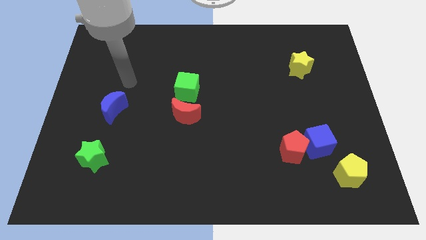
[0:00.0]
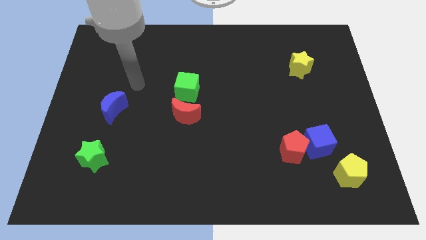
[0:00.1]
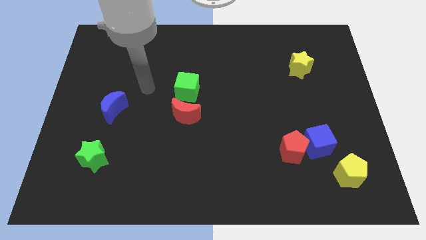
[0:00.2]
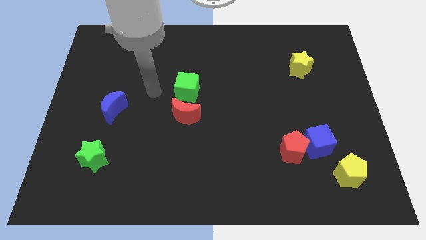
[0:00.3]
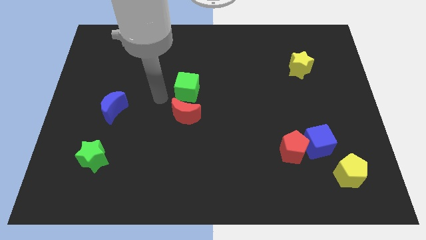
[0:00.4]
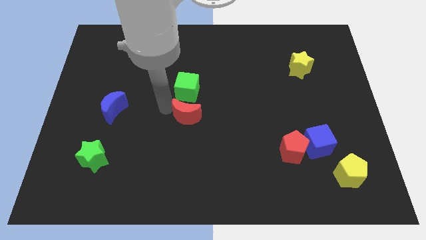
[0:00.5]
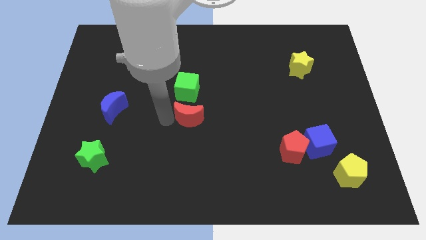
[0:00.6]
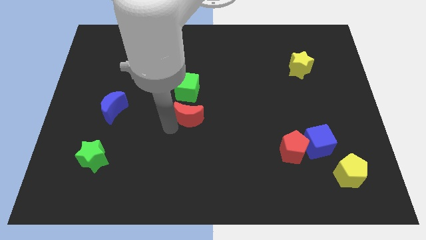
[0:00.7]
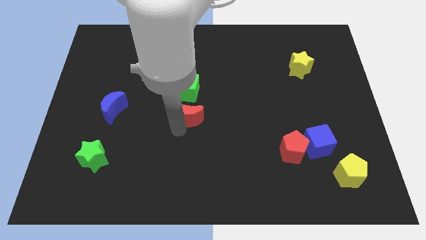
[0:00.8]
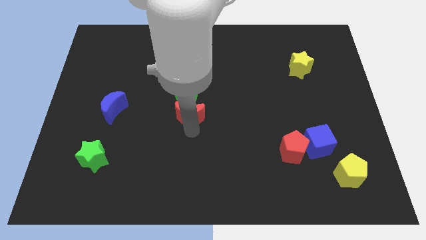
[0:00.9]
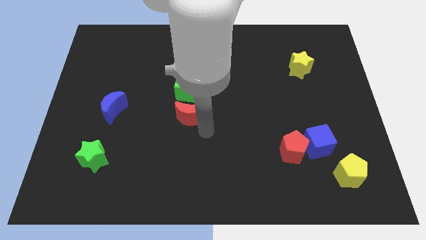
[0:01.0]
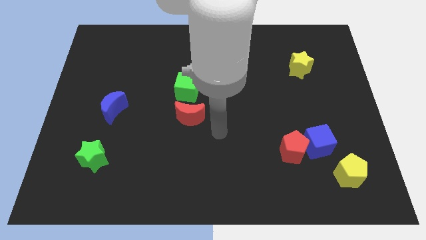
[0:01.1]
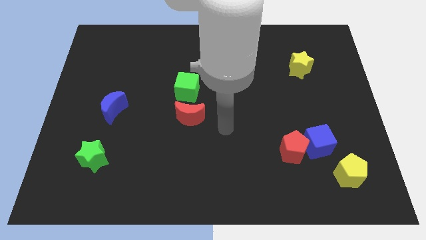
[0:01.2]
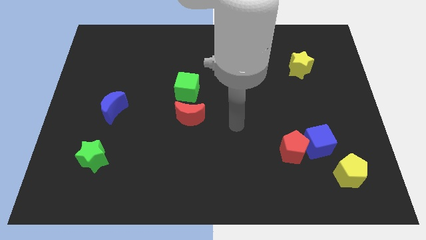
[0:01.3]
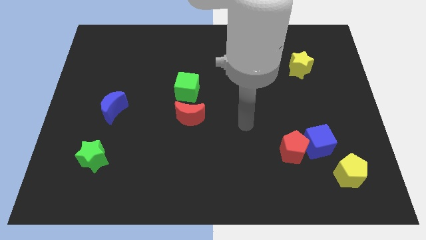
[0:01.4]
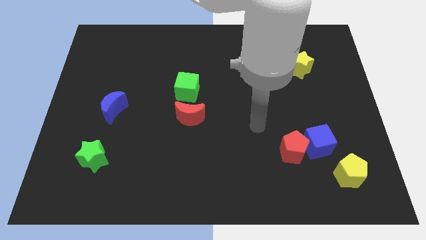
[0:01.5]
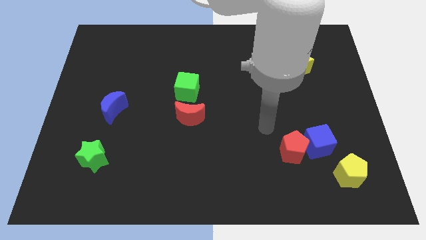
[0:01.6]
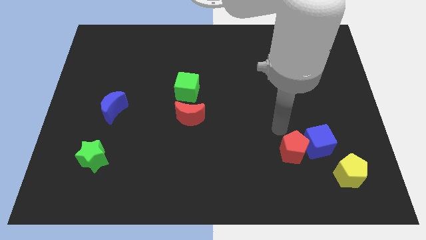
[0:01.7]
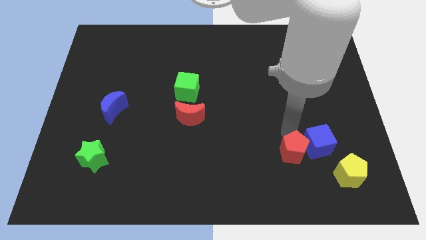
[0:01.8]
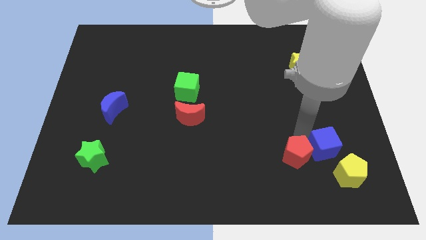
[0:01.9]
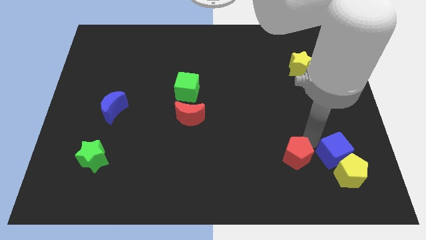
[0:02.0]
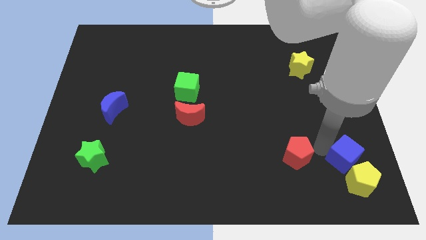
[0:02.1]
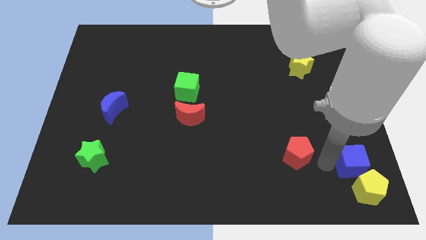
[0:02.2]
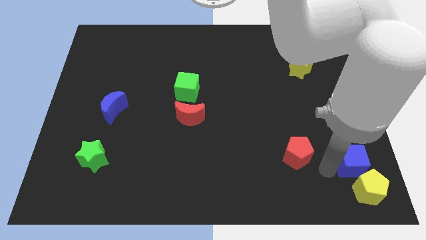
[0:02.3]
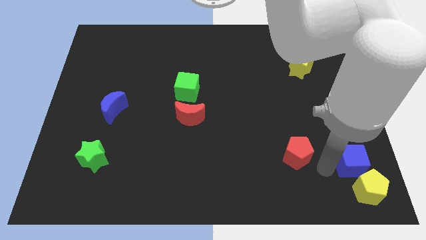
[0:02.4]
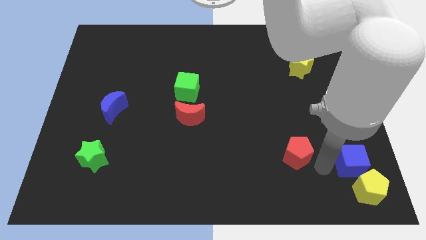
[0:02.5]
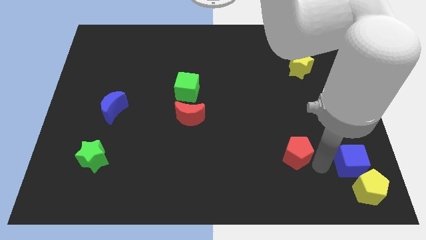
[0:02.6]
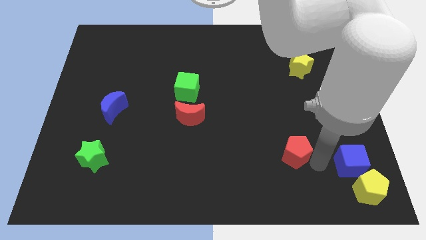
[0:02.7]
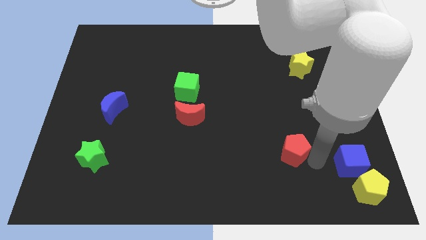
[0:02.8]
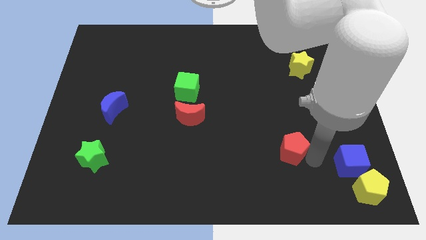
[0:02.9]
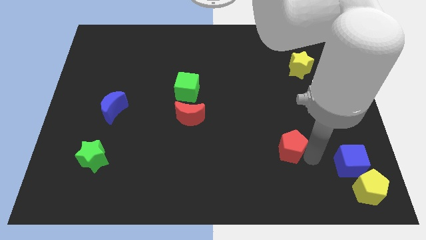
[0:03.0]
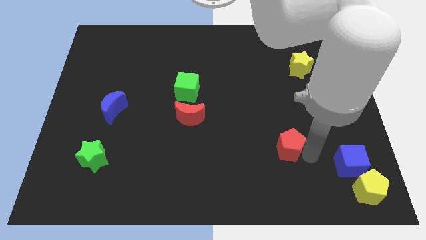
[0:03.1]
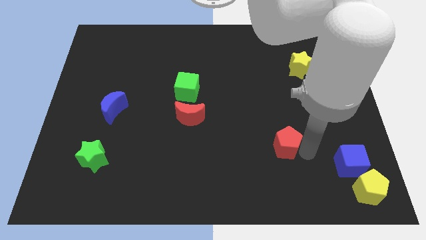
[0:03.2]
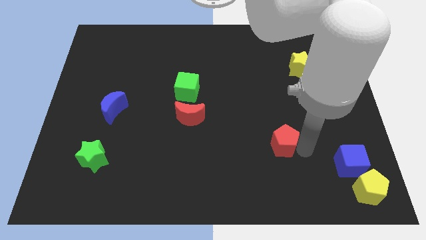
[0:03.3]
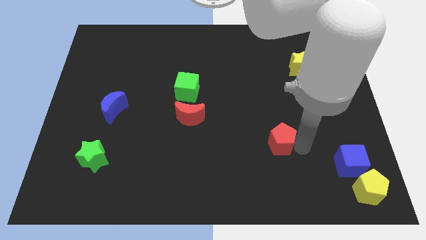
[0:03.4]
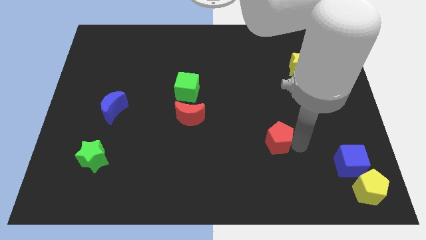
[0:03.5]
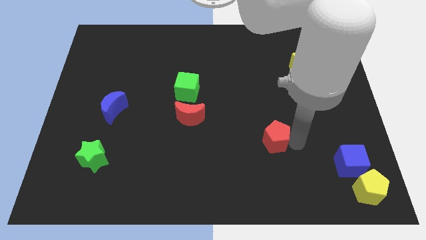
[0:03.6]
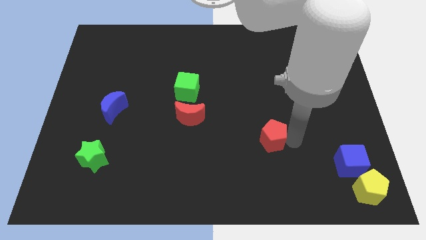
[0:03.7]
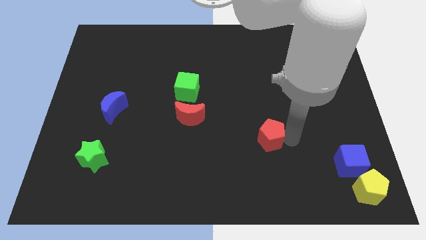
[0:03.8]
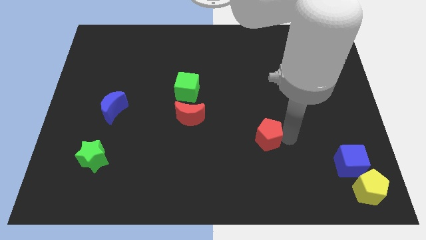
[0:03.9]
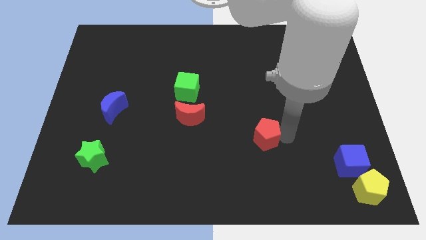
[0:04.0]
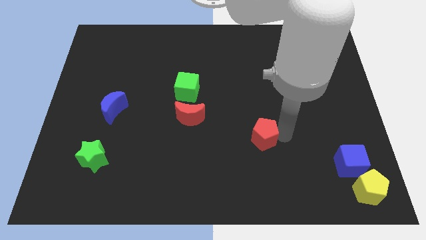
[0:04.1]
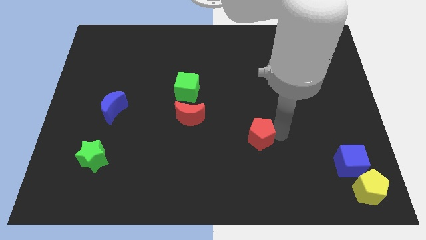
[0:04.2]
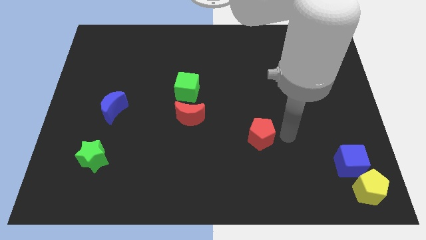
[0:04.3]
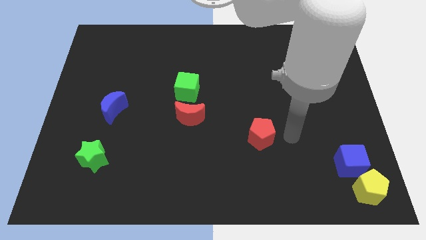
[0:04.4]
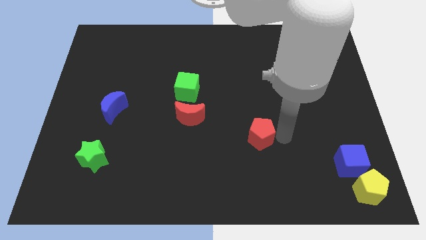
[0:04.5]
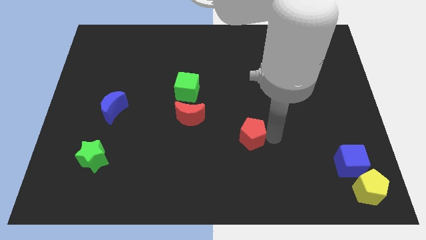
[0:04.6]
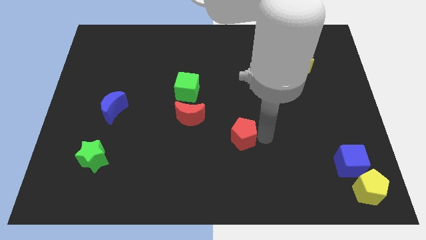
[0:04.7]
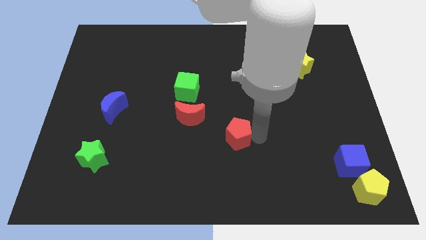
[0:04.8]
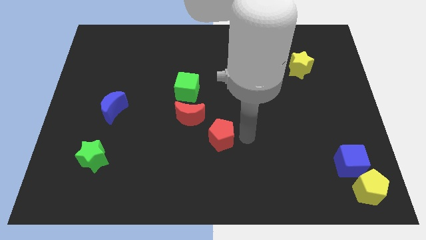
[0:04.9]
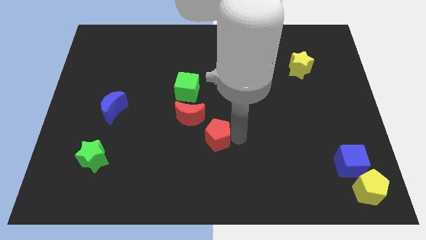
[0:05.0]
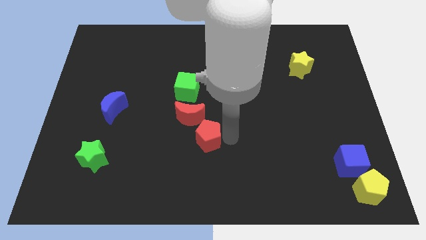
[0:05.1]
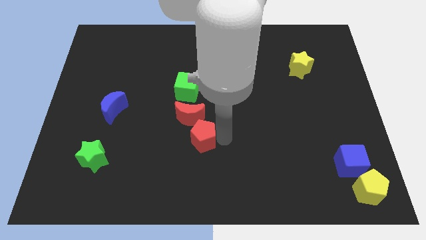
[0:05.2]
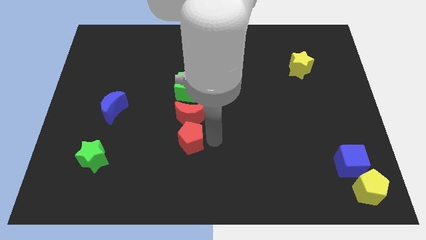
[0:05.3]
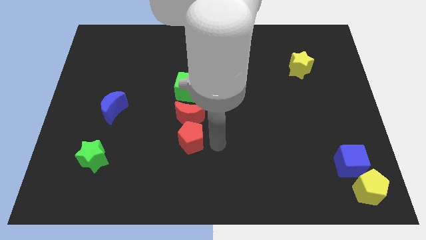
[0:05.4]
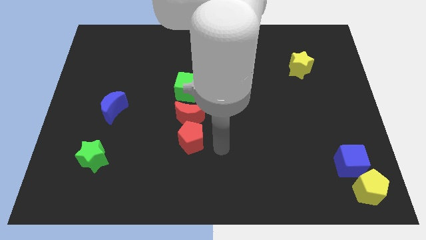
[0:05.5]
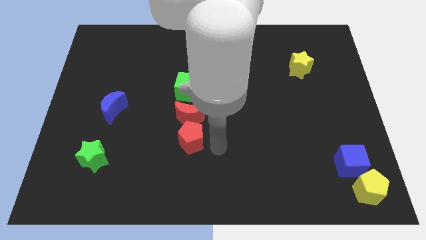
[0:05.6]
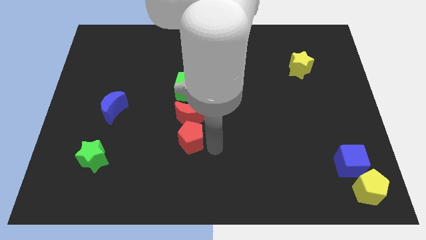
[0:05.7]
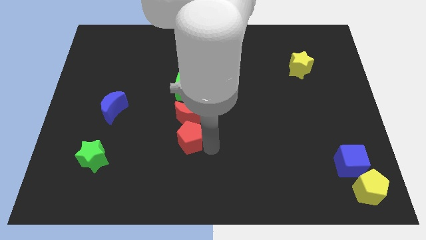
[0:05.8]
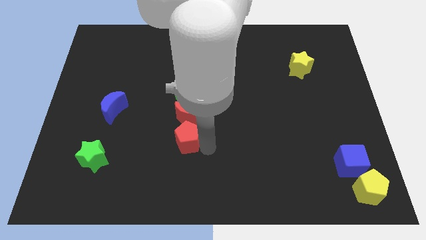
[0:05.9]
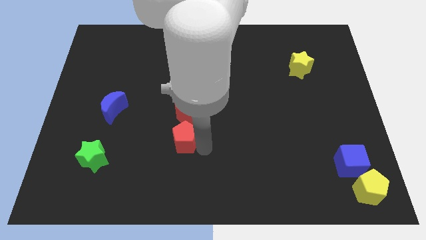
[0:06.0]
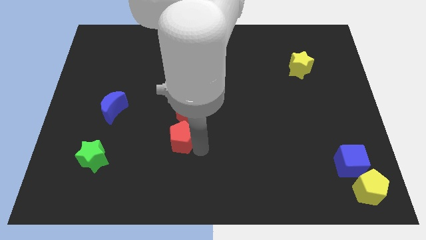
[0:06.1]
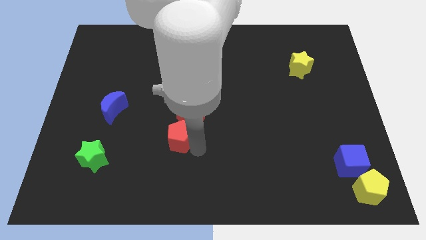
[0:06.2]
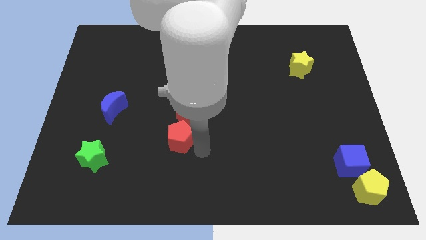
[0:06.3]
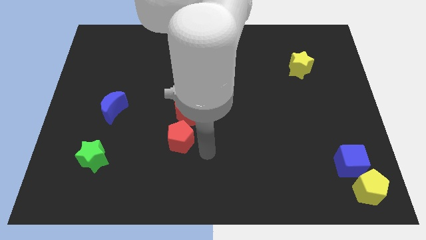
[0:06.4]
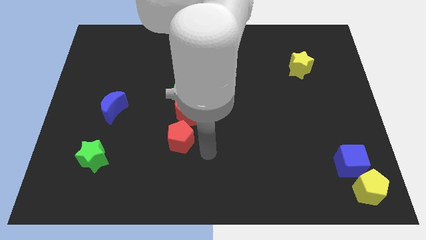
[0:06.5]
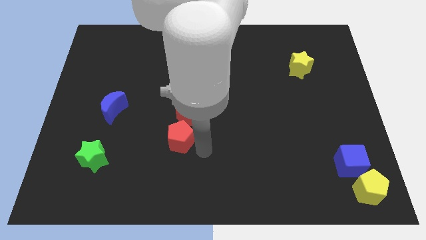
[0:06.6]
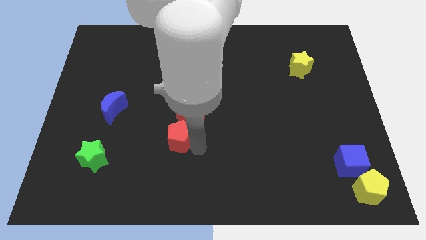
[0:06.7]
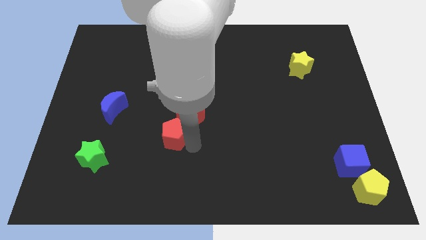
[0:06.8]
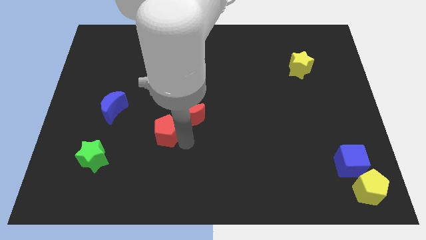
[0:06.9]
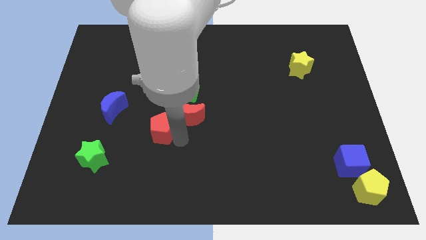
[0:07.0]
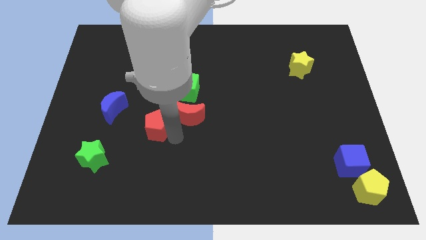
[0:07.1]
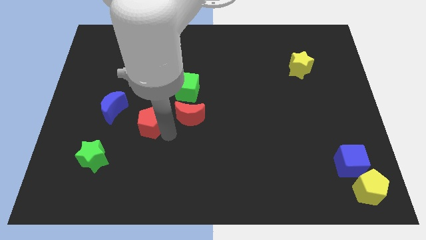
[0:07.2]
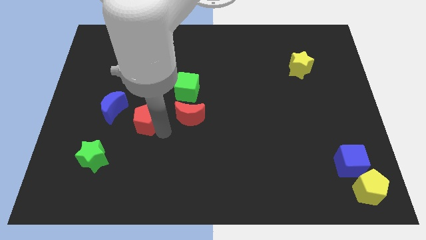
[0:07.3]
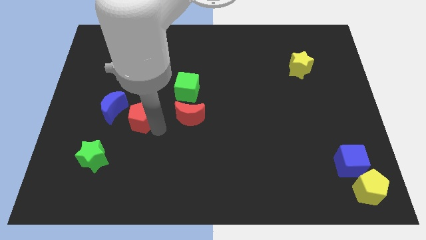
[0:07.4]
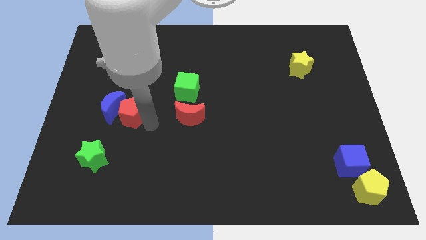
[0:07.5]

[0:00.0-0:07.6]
slide the red pentagon close to the blue moon
